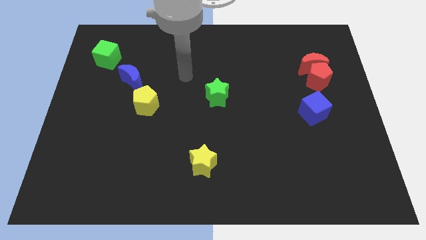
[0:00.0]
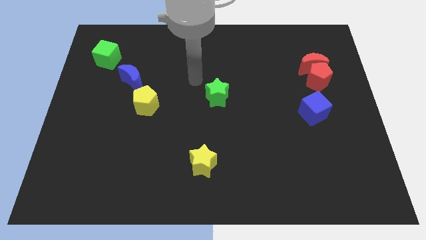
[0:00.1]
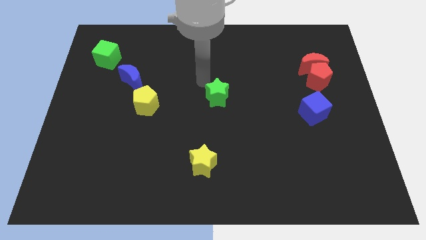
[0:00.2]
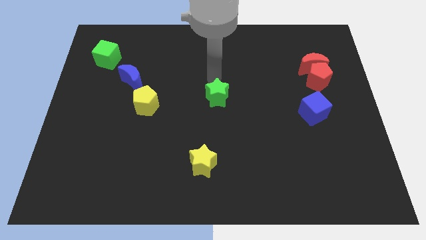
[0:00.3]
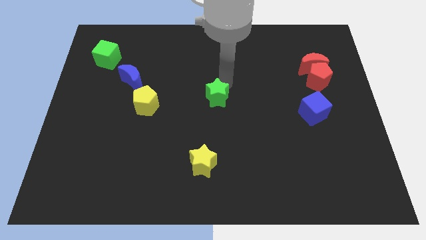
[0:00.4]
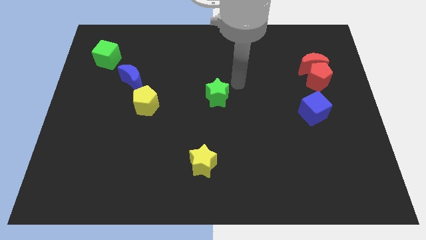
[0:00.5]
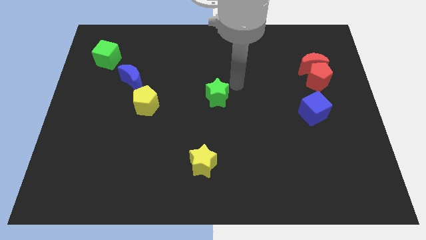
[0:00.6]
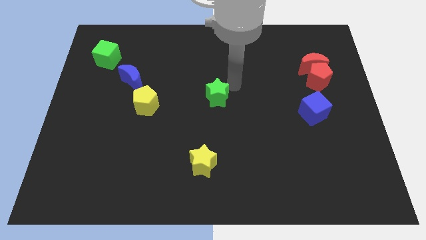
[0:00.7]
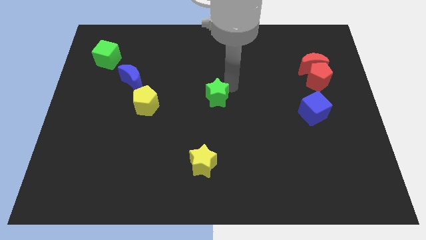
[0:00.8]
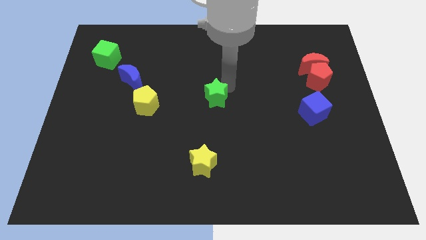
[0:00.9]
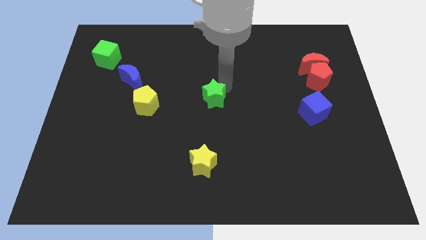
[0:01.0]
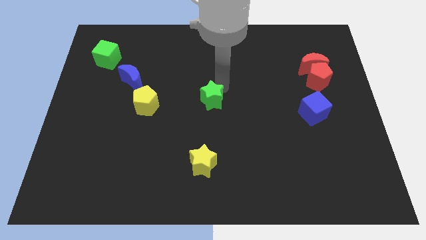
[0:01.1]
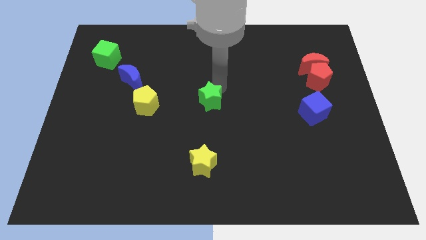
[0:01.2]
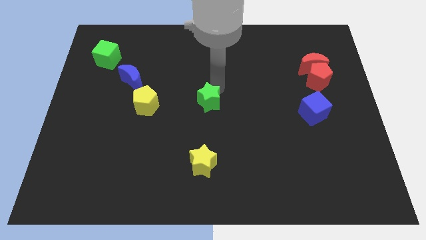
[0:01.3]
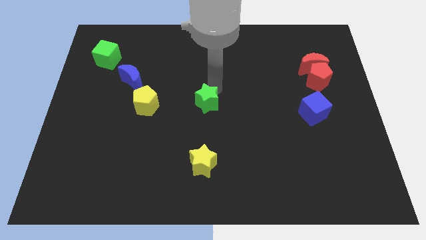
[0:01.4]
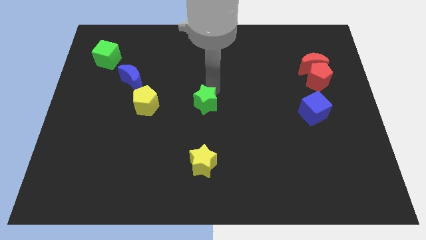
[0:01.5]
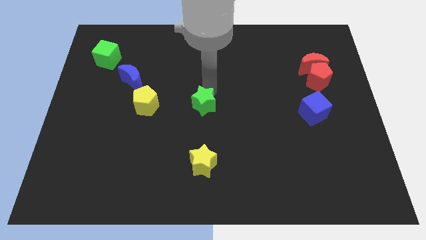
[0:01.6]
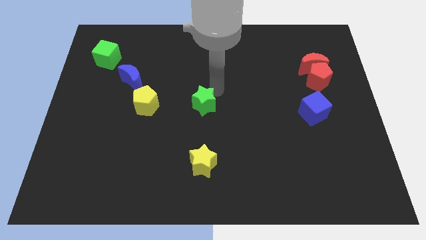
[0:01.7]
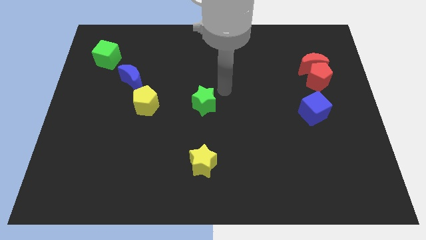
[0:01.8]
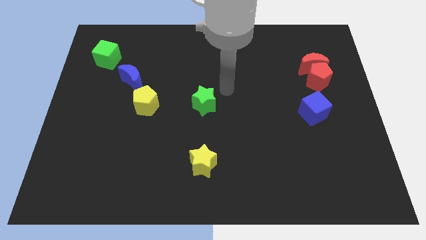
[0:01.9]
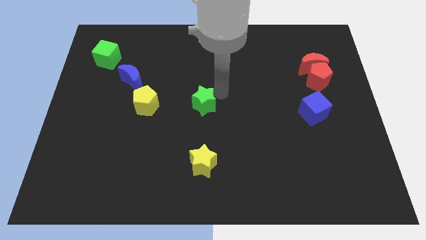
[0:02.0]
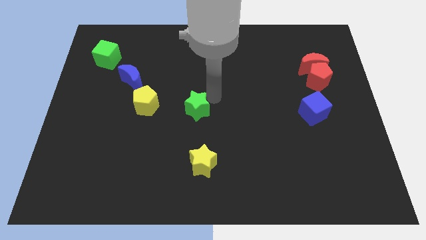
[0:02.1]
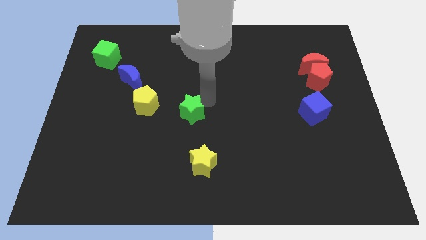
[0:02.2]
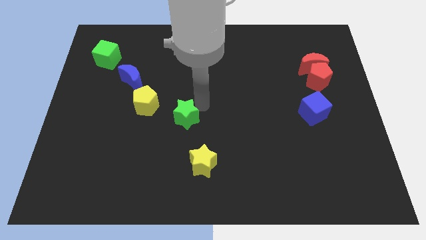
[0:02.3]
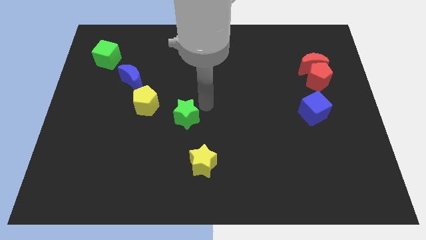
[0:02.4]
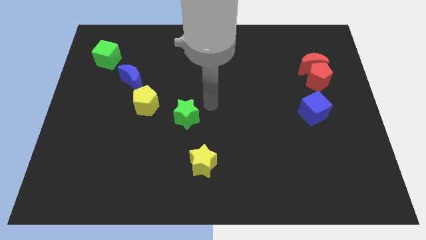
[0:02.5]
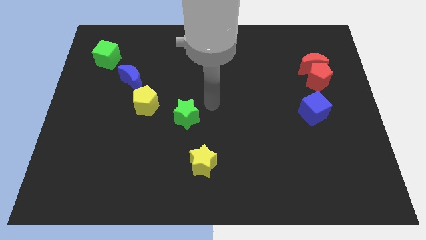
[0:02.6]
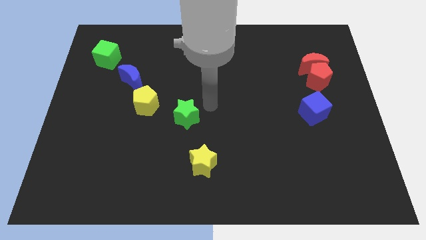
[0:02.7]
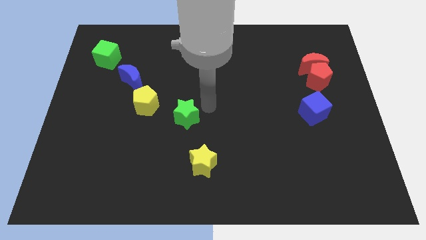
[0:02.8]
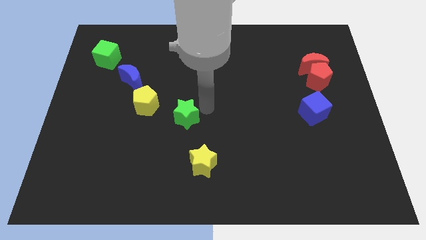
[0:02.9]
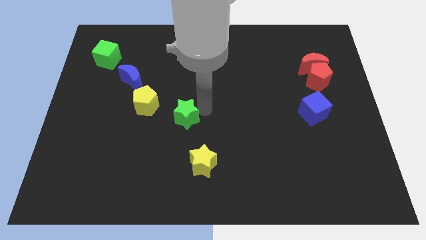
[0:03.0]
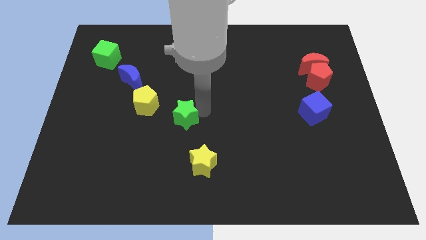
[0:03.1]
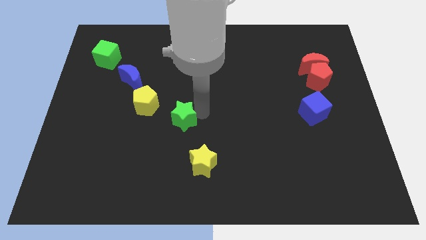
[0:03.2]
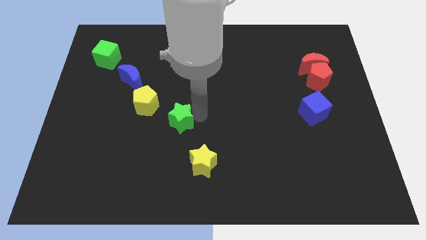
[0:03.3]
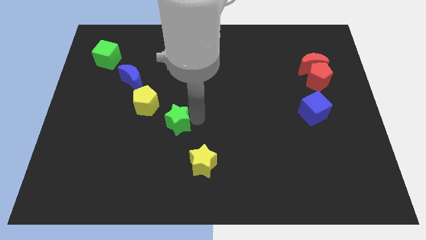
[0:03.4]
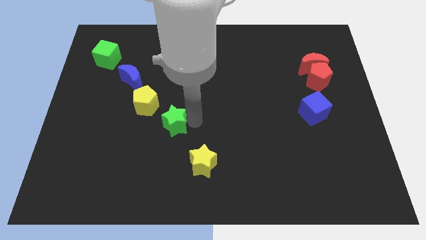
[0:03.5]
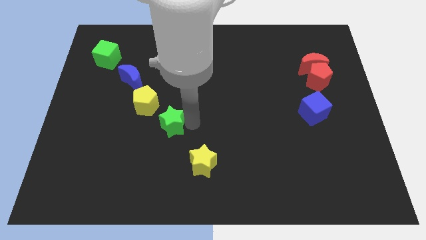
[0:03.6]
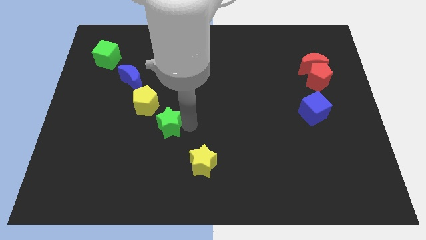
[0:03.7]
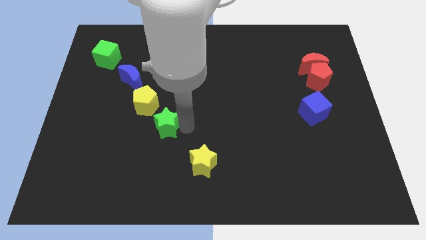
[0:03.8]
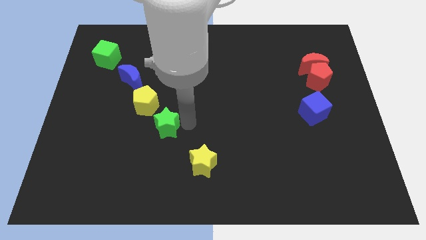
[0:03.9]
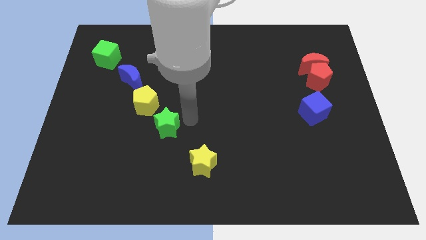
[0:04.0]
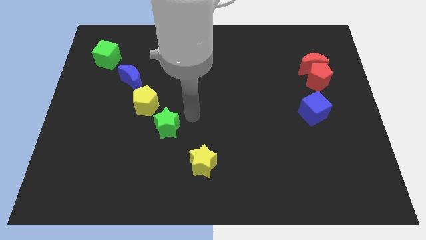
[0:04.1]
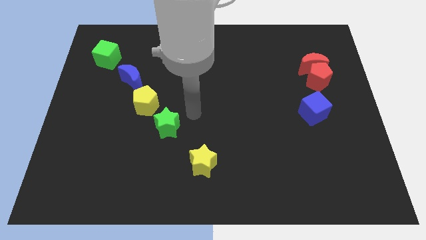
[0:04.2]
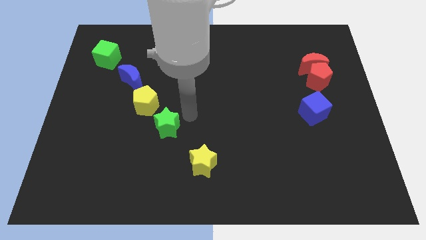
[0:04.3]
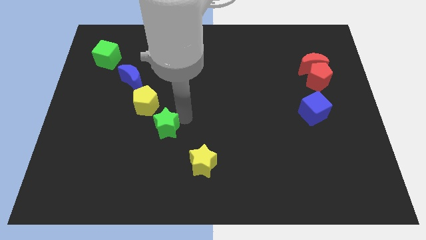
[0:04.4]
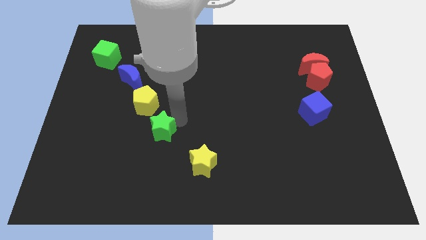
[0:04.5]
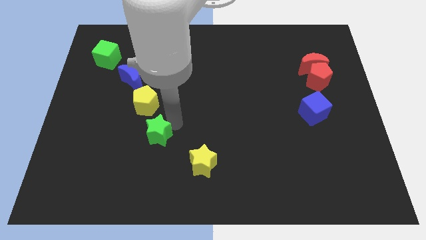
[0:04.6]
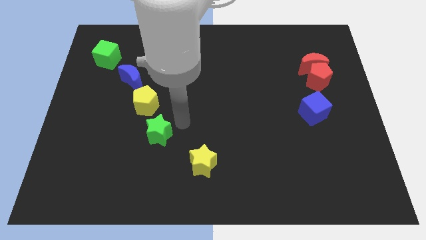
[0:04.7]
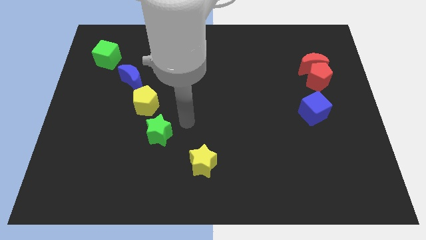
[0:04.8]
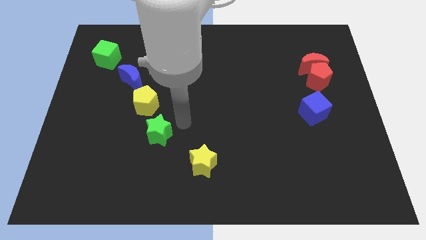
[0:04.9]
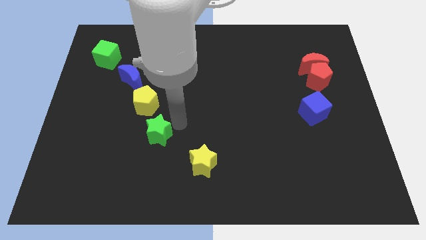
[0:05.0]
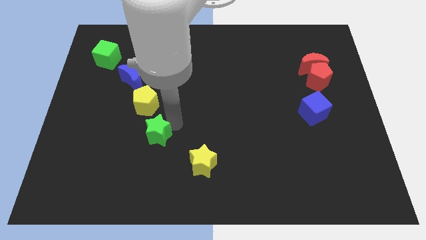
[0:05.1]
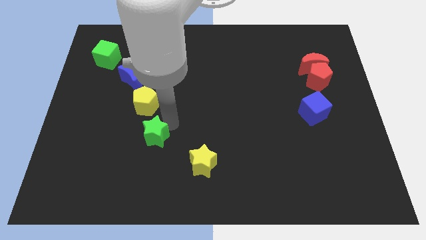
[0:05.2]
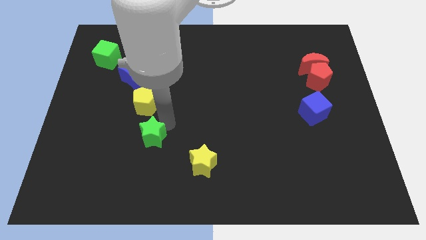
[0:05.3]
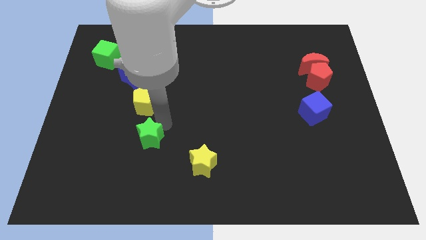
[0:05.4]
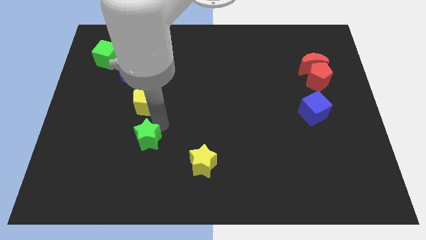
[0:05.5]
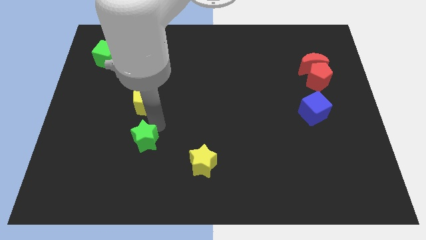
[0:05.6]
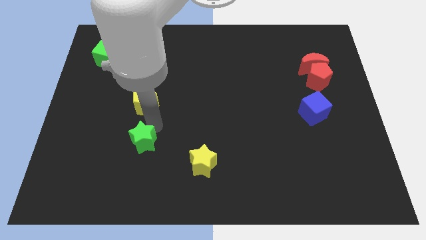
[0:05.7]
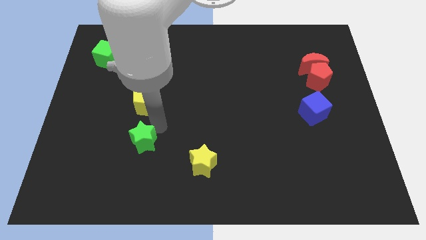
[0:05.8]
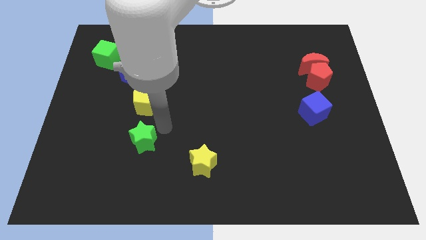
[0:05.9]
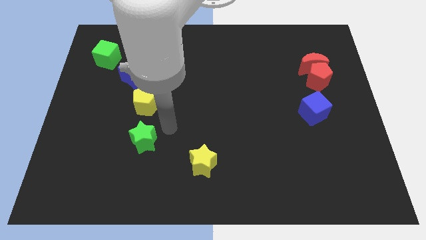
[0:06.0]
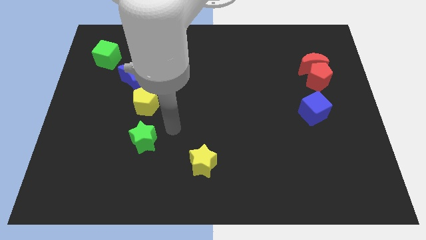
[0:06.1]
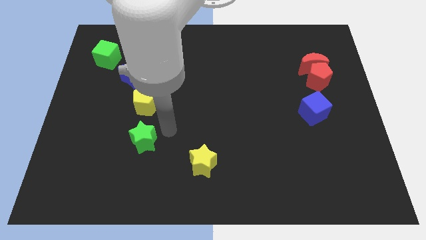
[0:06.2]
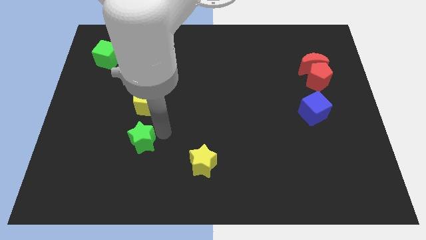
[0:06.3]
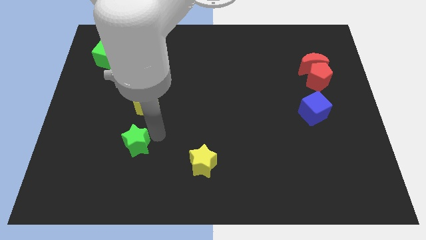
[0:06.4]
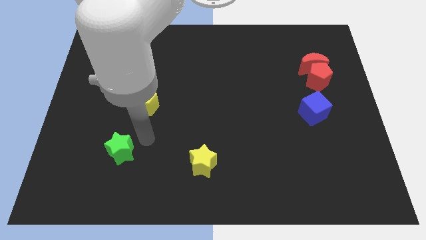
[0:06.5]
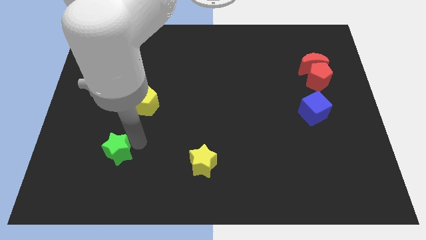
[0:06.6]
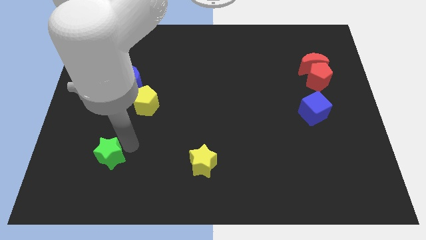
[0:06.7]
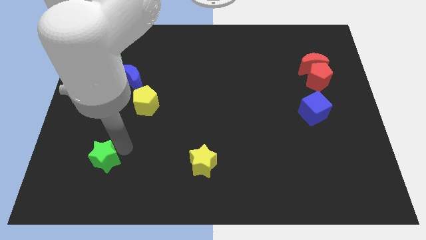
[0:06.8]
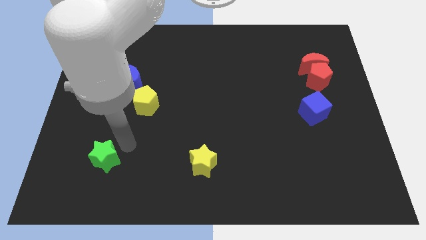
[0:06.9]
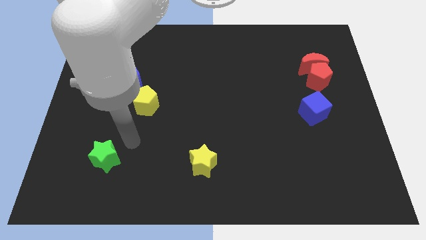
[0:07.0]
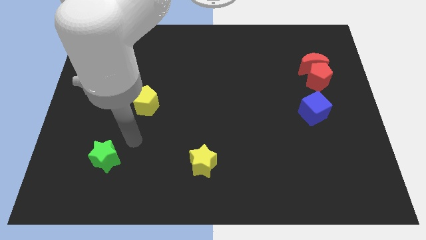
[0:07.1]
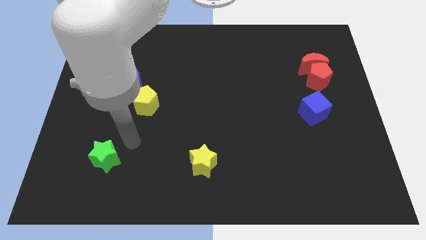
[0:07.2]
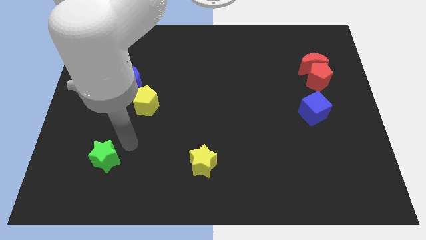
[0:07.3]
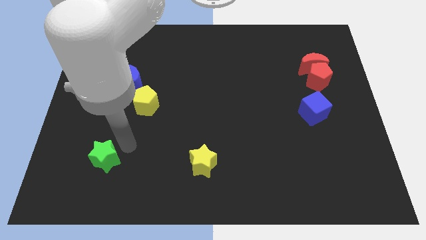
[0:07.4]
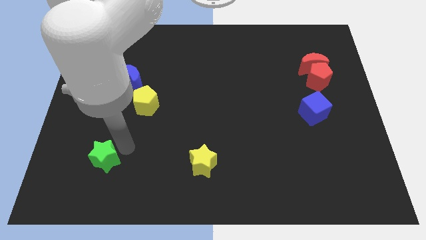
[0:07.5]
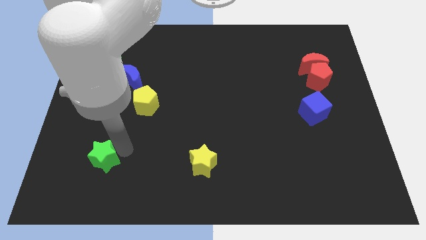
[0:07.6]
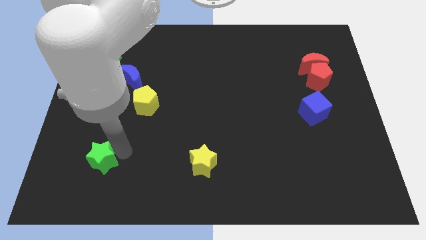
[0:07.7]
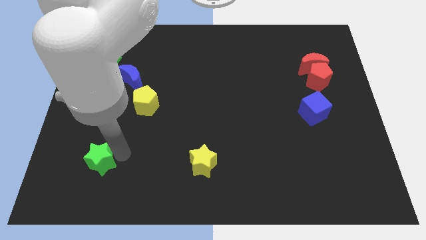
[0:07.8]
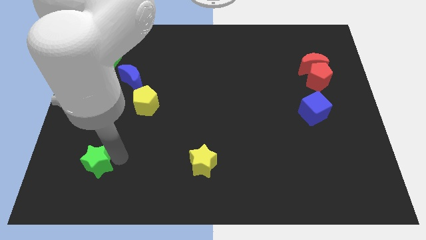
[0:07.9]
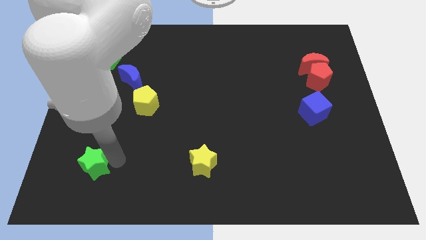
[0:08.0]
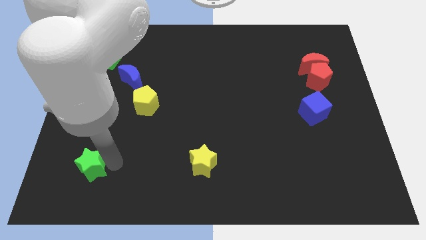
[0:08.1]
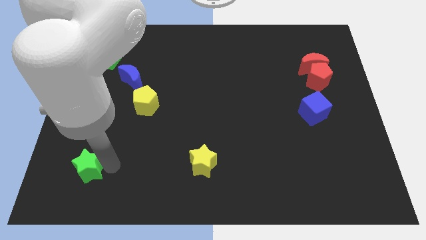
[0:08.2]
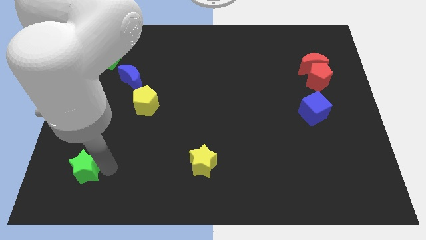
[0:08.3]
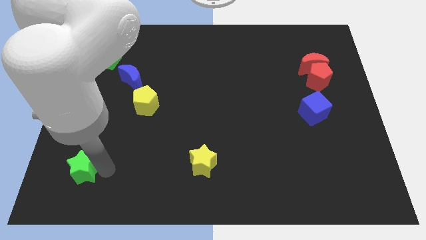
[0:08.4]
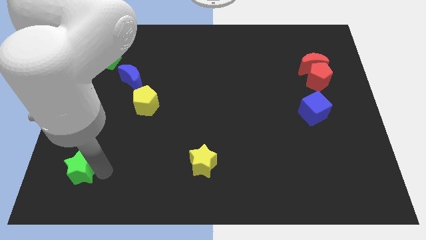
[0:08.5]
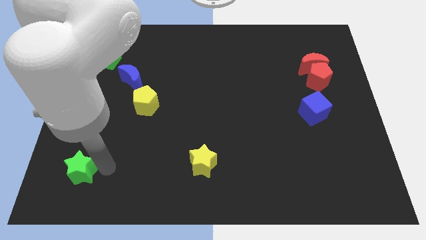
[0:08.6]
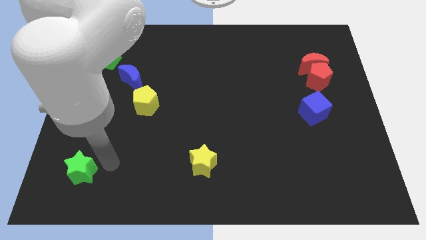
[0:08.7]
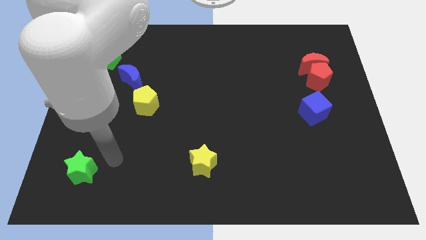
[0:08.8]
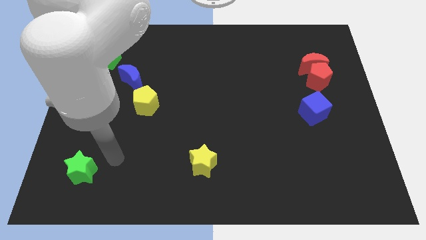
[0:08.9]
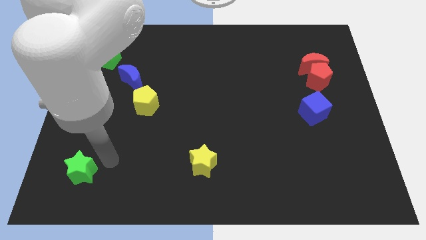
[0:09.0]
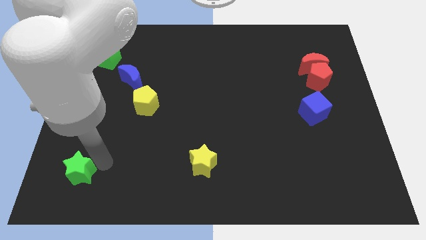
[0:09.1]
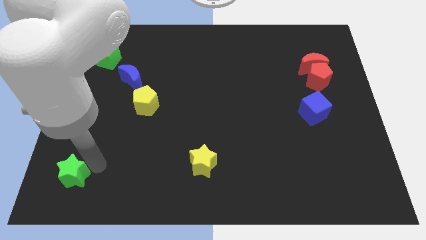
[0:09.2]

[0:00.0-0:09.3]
put the green star to the bottom left of the board
